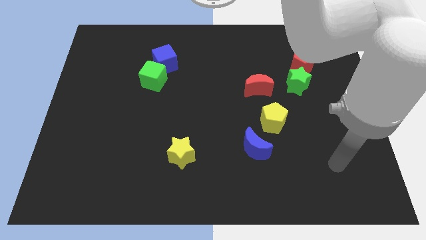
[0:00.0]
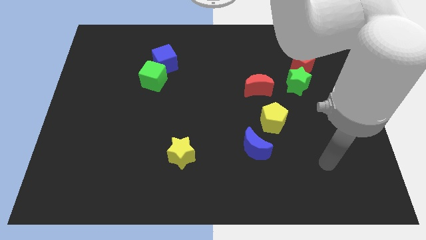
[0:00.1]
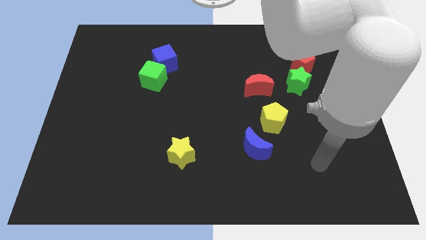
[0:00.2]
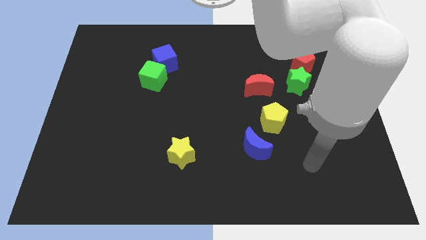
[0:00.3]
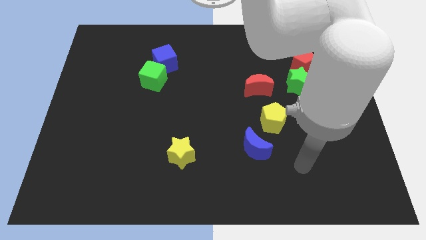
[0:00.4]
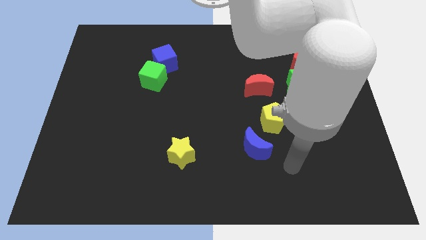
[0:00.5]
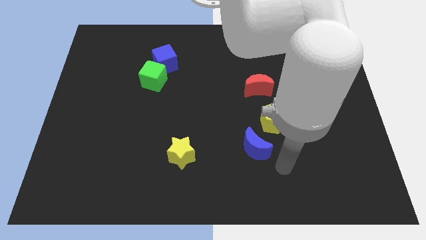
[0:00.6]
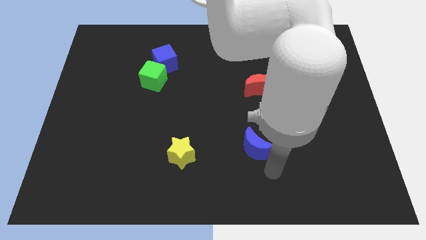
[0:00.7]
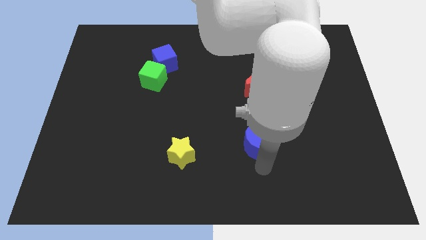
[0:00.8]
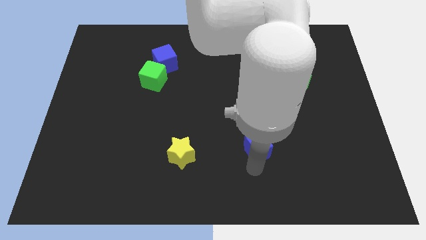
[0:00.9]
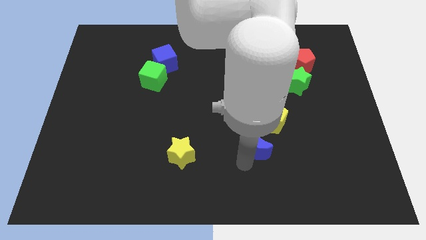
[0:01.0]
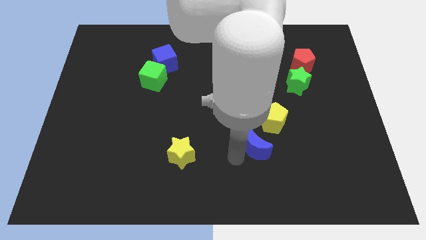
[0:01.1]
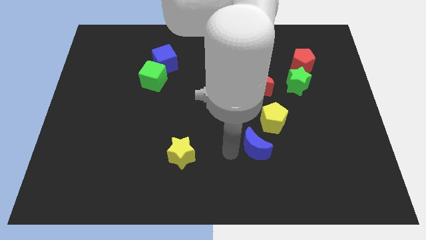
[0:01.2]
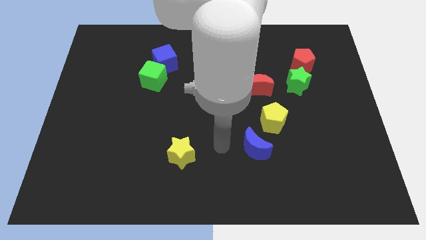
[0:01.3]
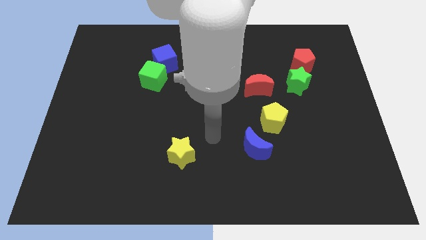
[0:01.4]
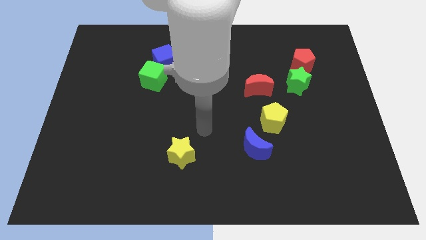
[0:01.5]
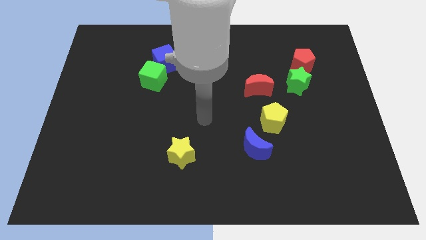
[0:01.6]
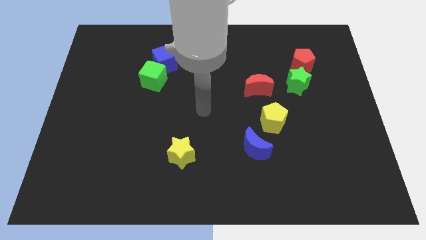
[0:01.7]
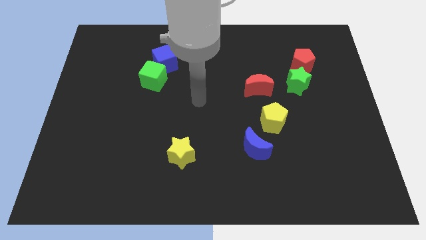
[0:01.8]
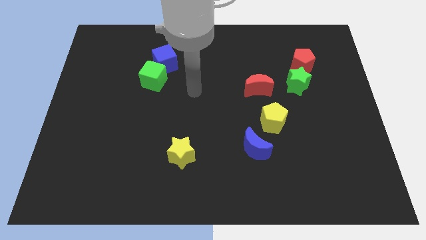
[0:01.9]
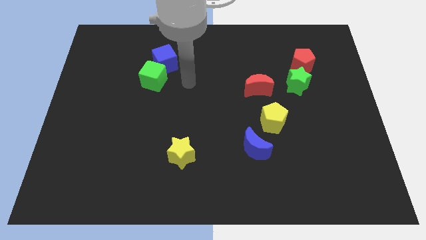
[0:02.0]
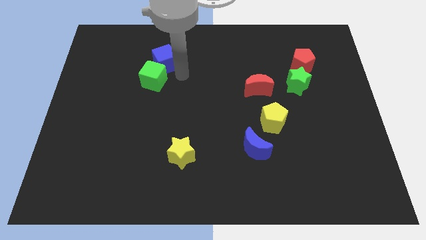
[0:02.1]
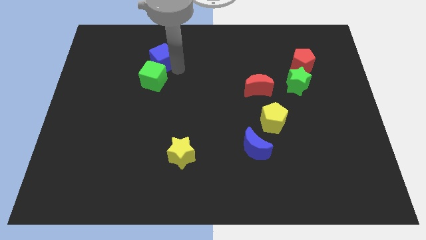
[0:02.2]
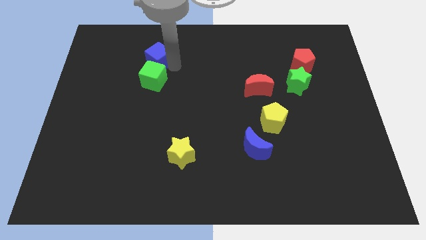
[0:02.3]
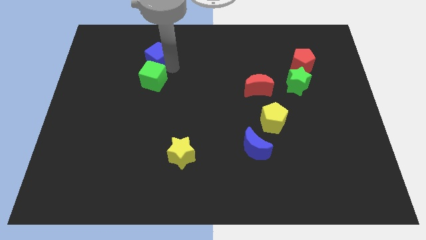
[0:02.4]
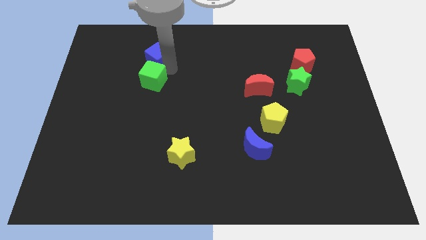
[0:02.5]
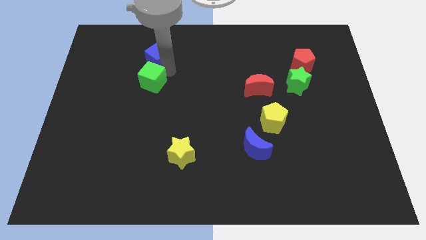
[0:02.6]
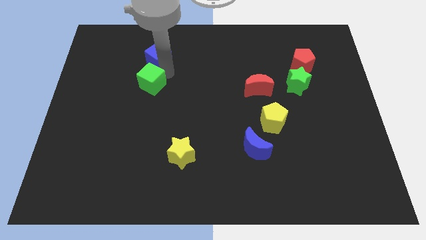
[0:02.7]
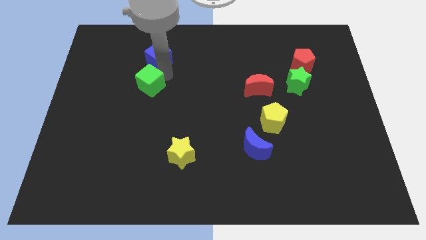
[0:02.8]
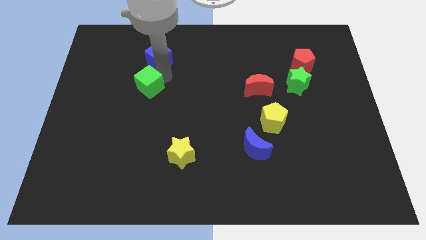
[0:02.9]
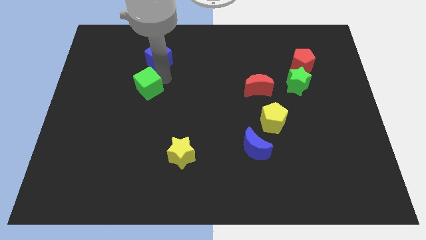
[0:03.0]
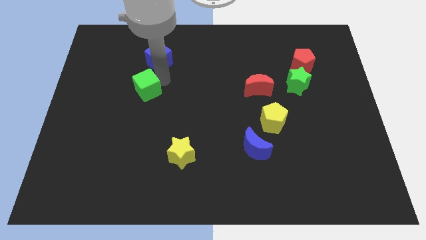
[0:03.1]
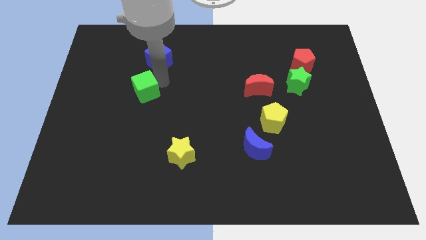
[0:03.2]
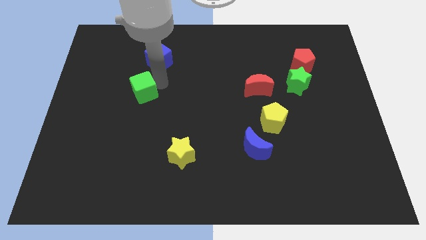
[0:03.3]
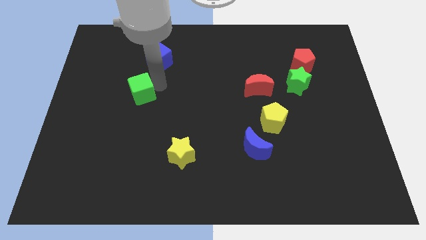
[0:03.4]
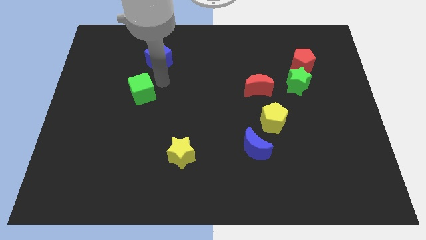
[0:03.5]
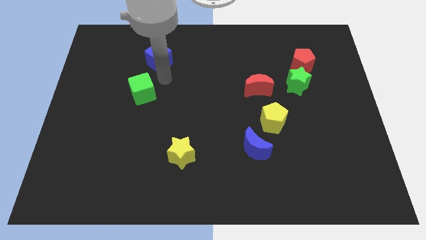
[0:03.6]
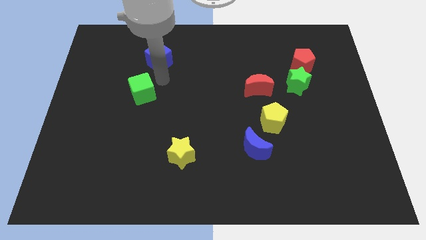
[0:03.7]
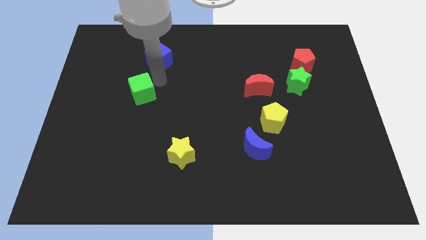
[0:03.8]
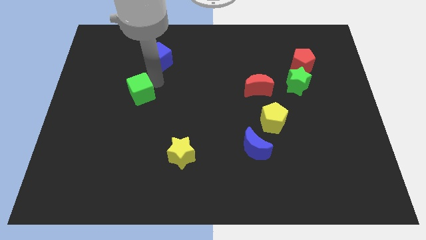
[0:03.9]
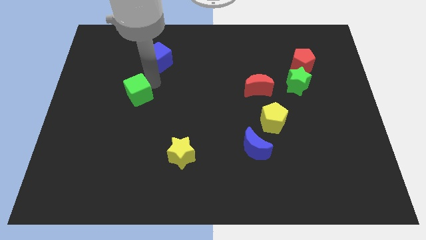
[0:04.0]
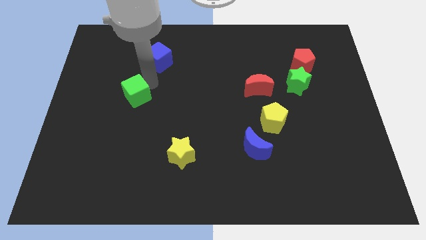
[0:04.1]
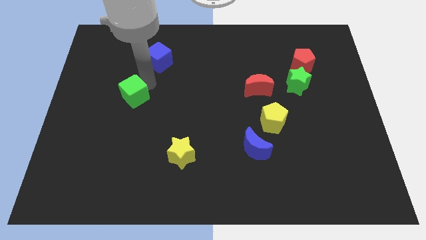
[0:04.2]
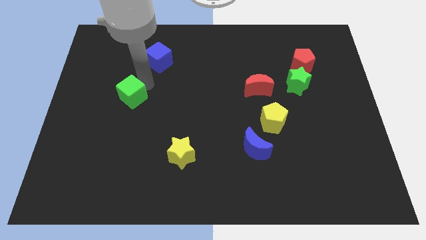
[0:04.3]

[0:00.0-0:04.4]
move the green cube a little down and left

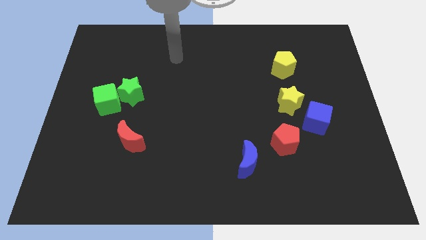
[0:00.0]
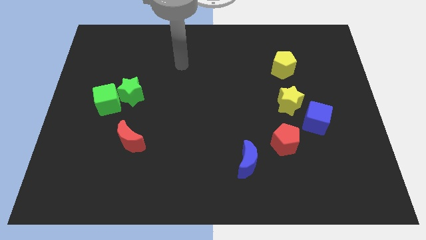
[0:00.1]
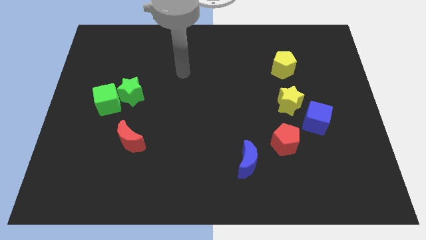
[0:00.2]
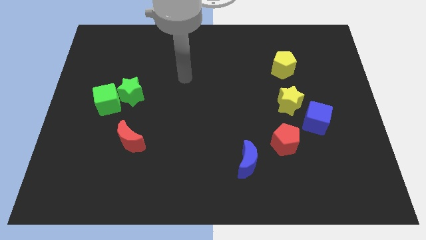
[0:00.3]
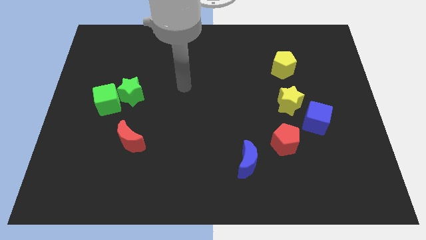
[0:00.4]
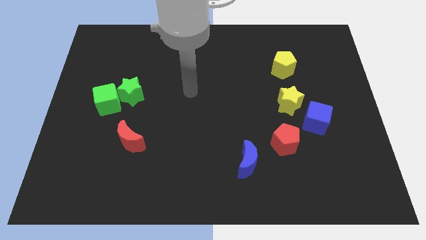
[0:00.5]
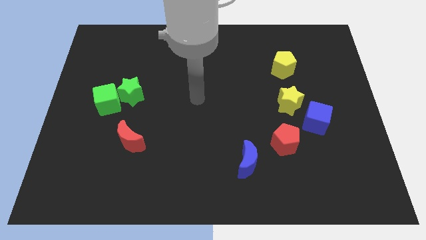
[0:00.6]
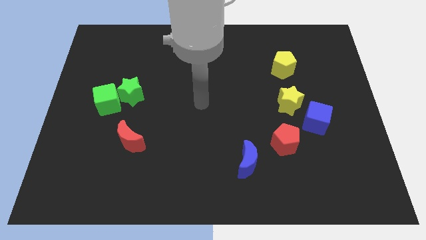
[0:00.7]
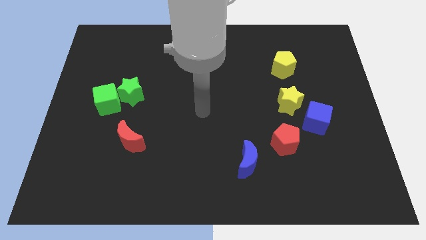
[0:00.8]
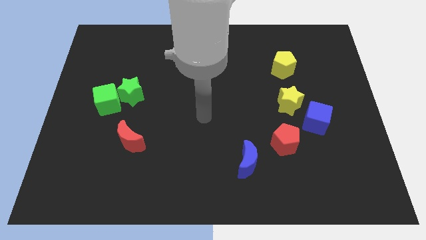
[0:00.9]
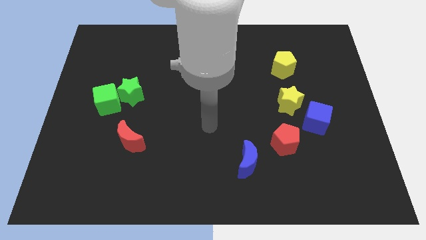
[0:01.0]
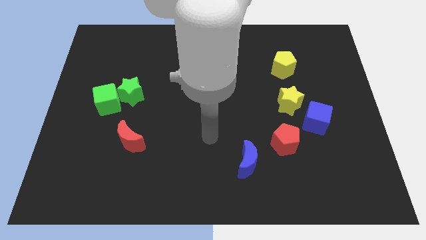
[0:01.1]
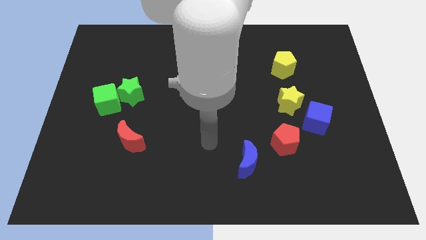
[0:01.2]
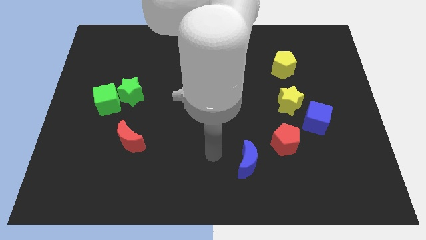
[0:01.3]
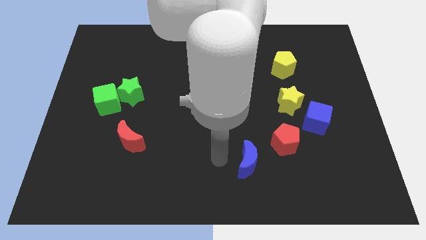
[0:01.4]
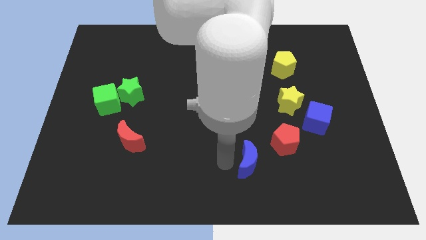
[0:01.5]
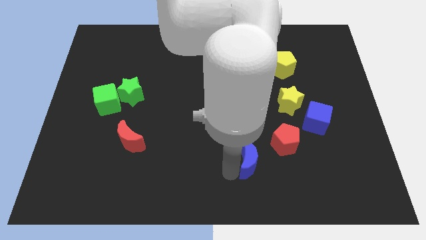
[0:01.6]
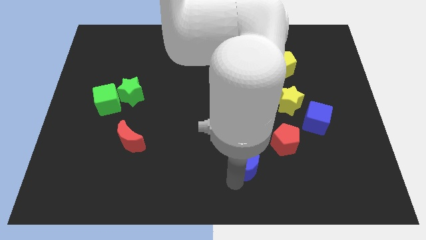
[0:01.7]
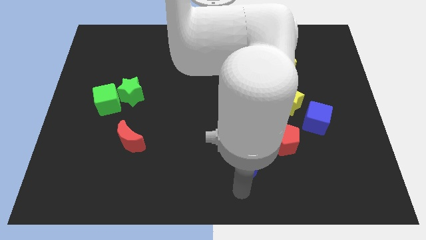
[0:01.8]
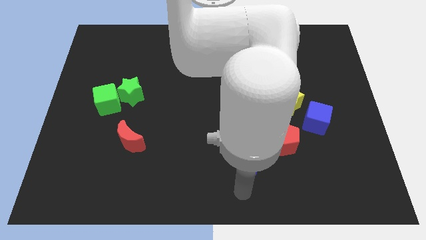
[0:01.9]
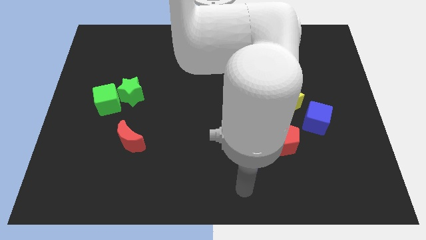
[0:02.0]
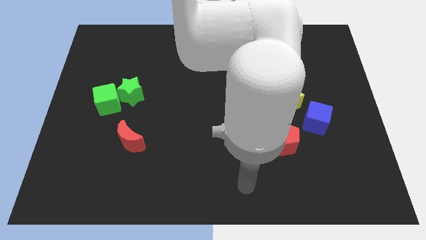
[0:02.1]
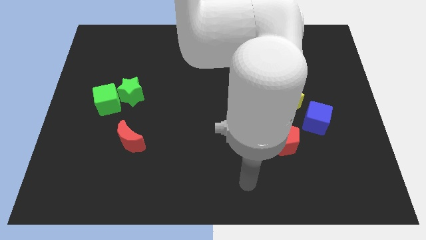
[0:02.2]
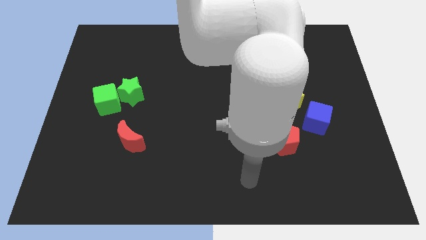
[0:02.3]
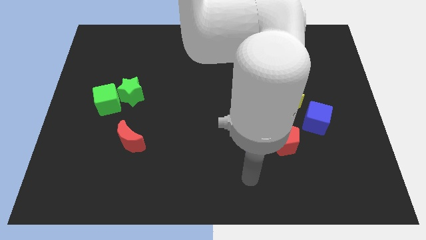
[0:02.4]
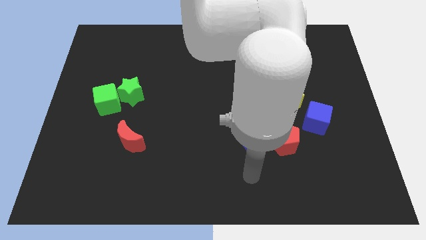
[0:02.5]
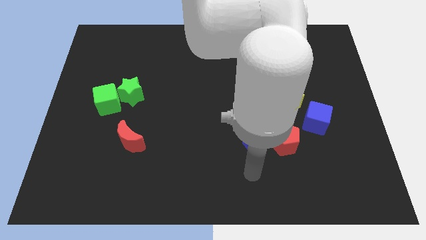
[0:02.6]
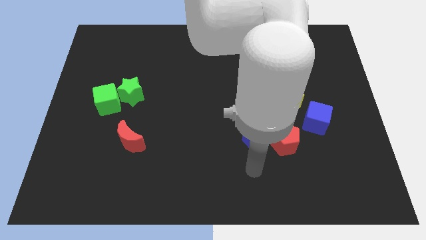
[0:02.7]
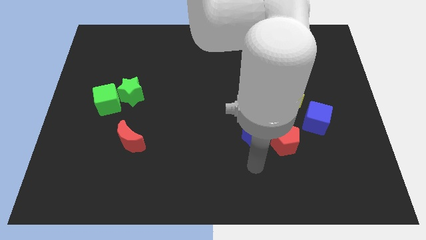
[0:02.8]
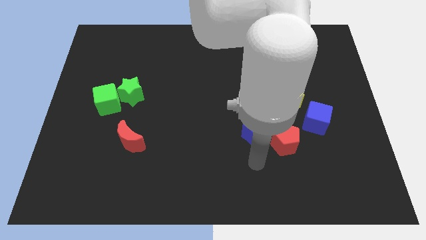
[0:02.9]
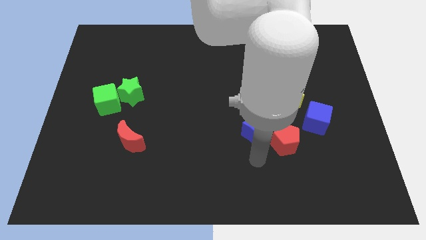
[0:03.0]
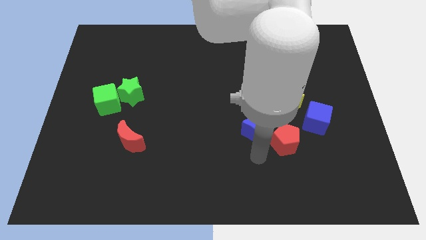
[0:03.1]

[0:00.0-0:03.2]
slide the blue moon a little upwards

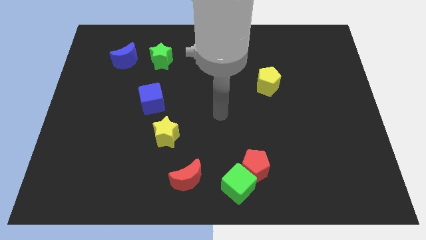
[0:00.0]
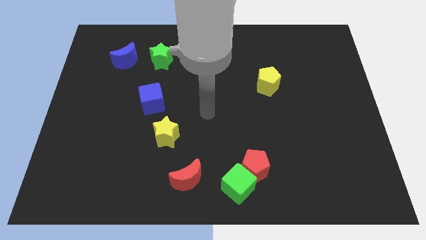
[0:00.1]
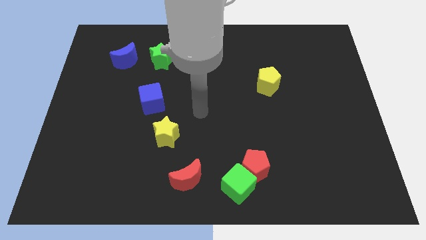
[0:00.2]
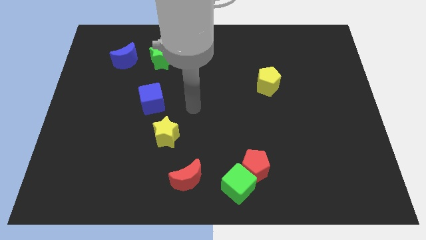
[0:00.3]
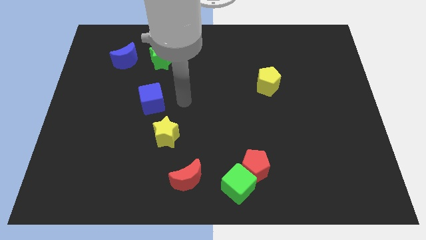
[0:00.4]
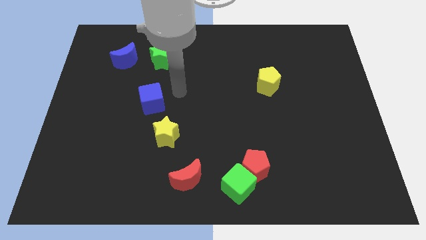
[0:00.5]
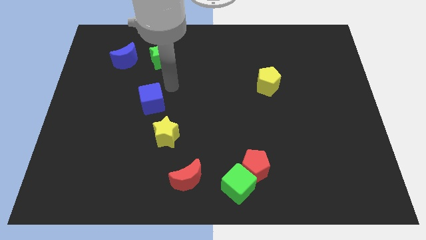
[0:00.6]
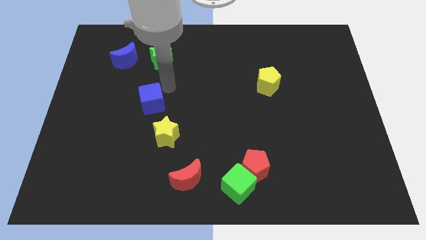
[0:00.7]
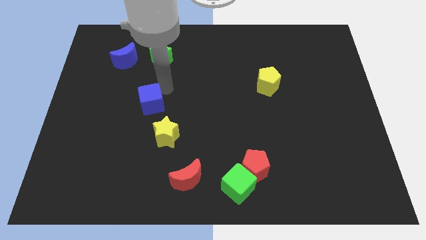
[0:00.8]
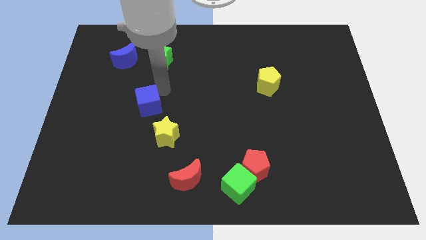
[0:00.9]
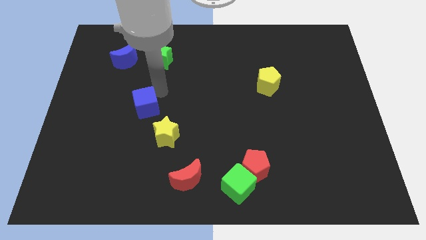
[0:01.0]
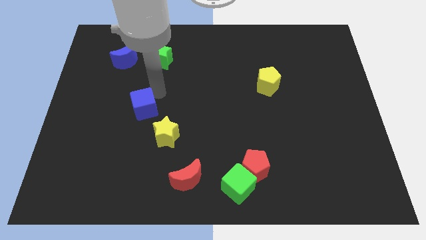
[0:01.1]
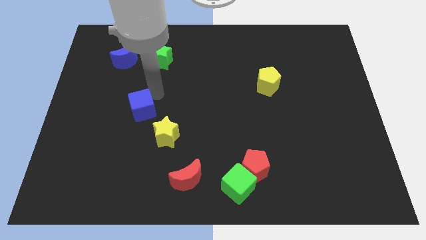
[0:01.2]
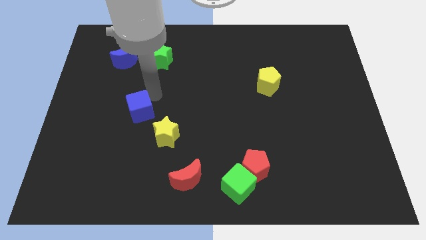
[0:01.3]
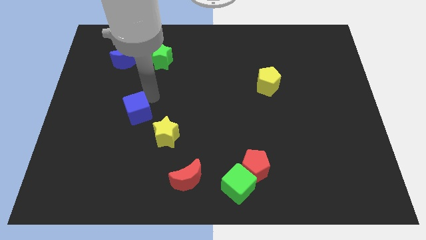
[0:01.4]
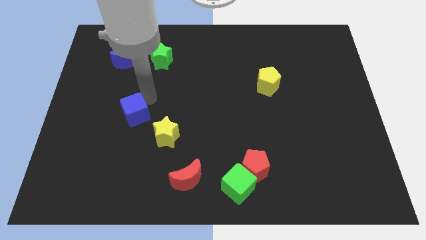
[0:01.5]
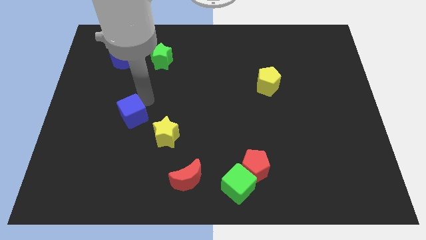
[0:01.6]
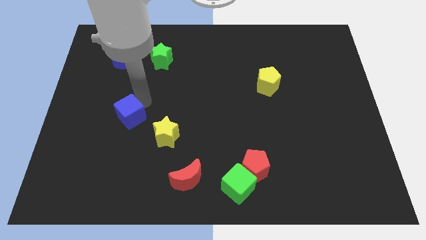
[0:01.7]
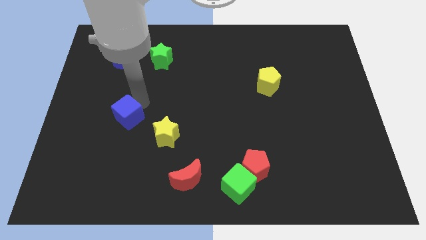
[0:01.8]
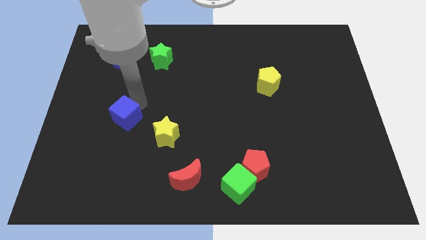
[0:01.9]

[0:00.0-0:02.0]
push the blue cube down and left slightly
